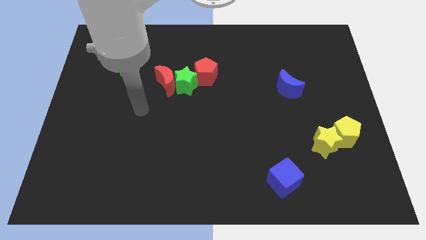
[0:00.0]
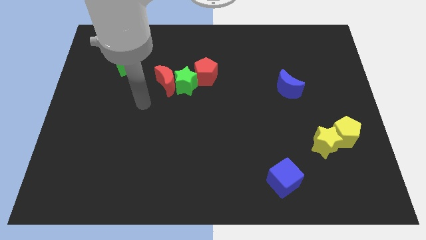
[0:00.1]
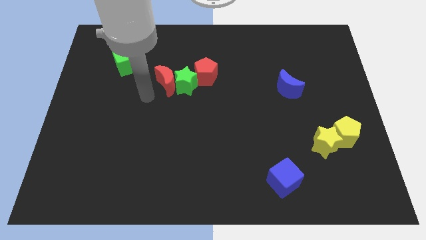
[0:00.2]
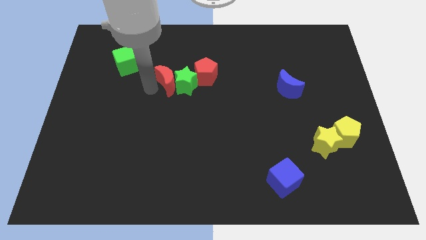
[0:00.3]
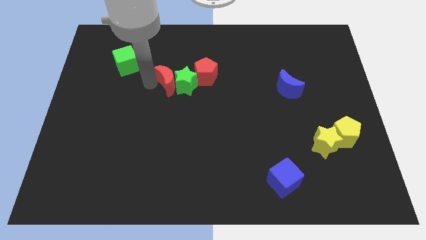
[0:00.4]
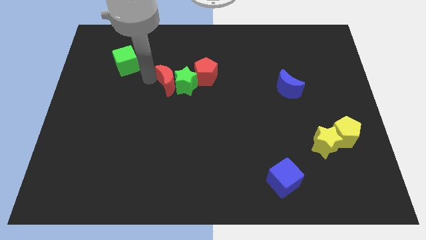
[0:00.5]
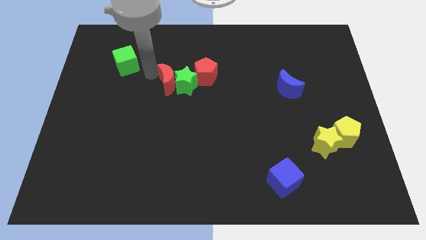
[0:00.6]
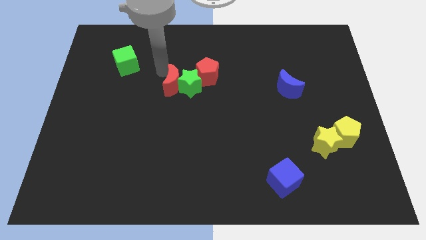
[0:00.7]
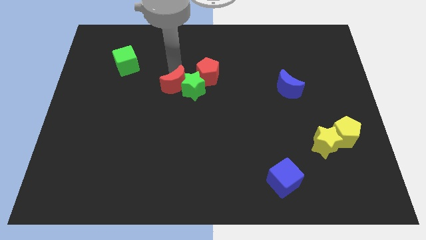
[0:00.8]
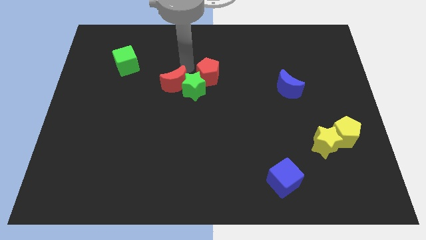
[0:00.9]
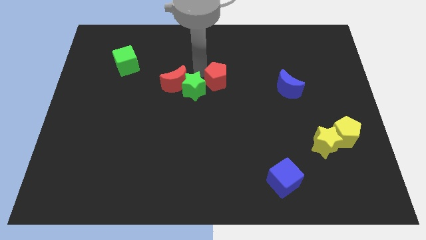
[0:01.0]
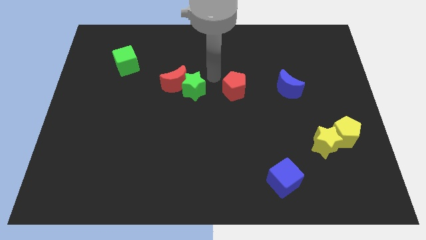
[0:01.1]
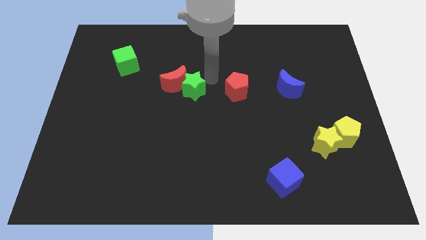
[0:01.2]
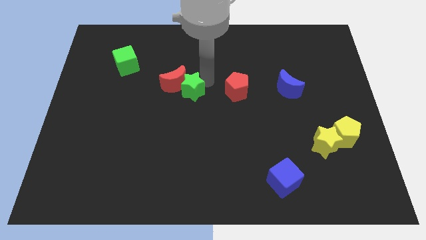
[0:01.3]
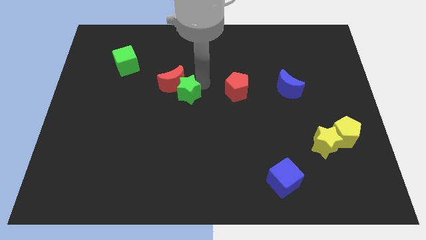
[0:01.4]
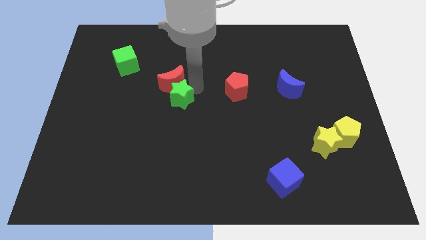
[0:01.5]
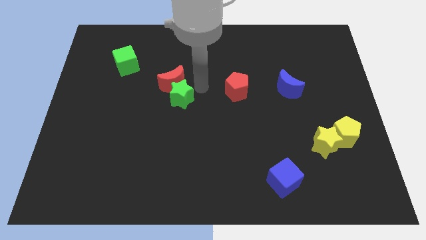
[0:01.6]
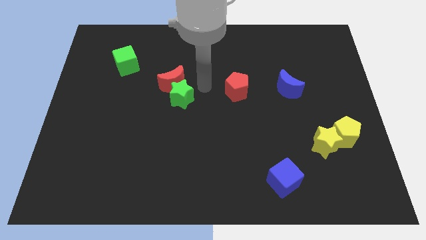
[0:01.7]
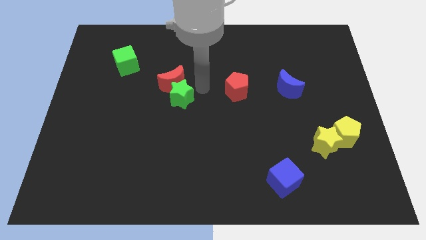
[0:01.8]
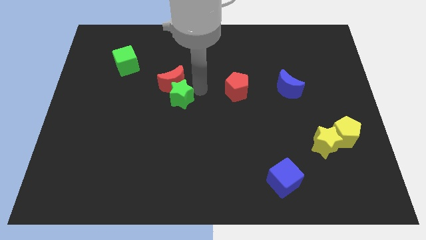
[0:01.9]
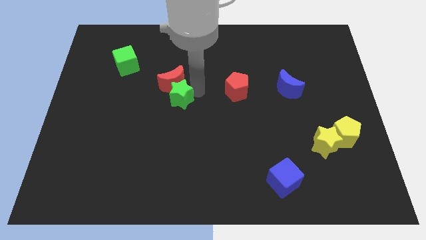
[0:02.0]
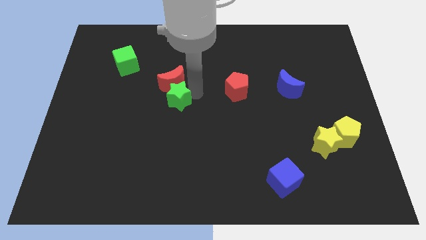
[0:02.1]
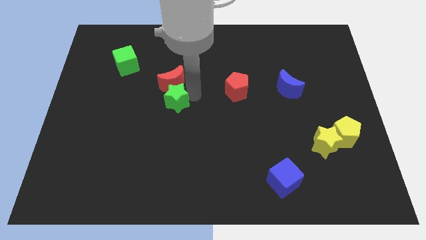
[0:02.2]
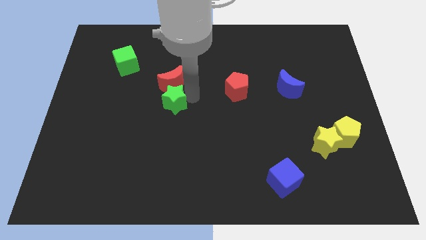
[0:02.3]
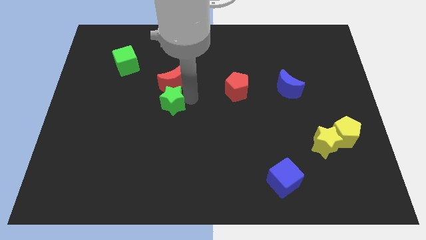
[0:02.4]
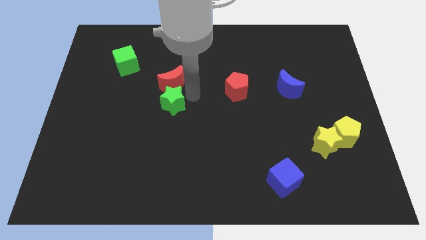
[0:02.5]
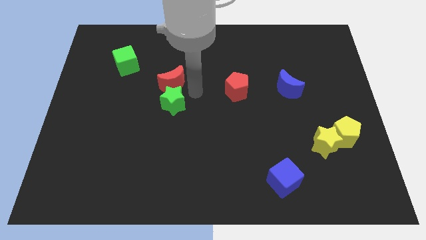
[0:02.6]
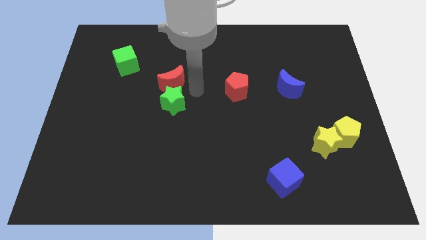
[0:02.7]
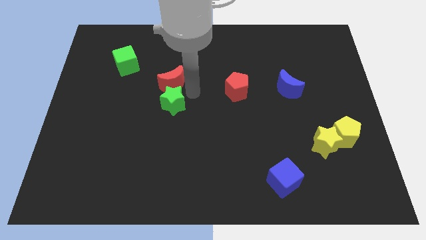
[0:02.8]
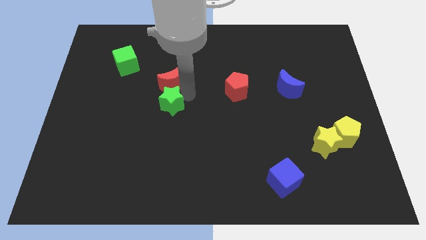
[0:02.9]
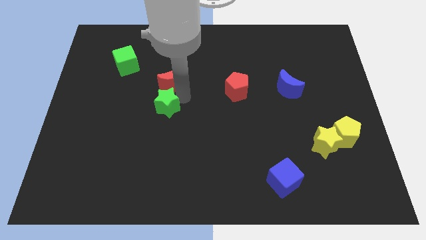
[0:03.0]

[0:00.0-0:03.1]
pull the green star apart from the red moon and red pentagon

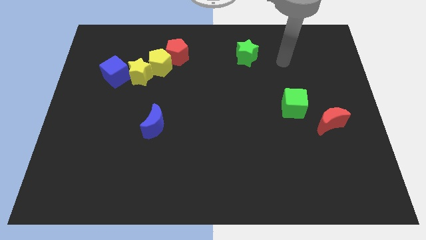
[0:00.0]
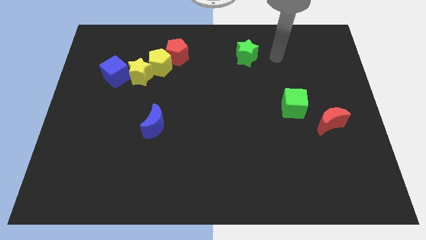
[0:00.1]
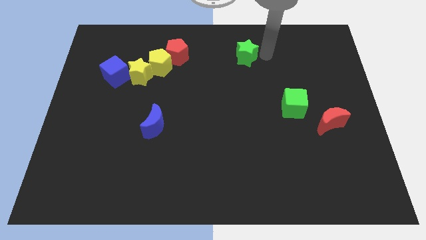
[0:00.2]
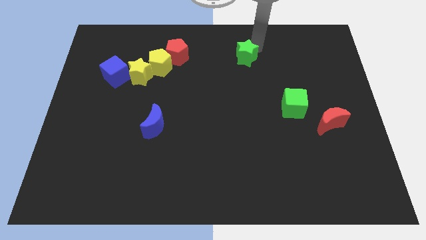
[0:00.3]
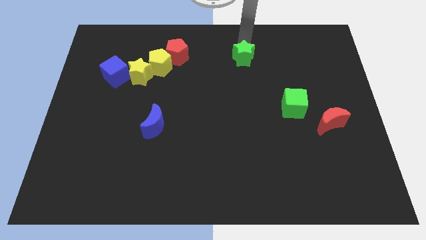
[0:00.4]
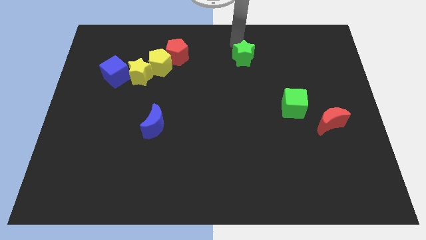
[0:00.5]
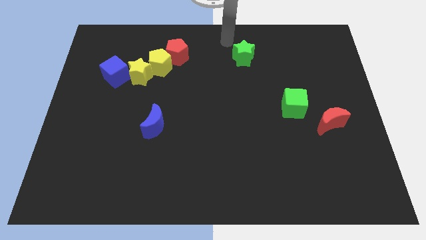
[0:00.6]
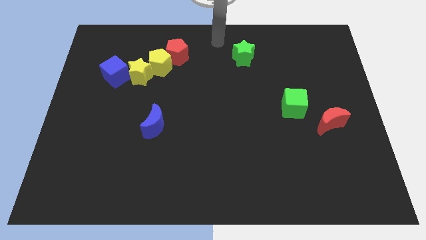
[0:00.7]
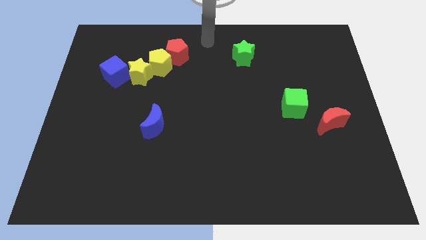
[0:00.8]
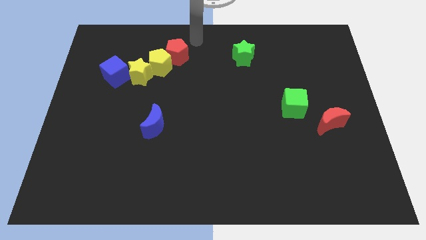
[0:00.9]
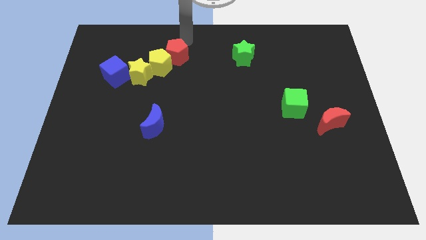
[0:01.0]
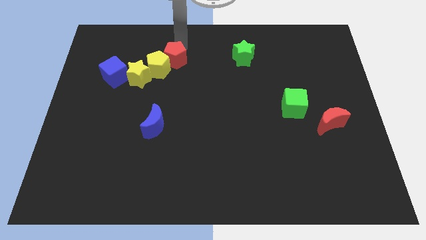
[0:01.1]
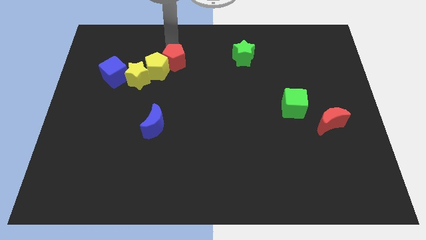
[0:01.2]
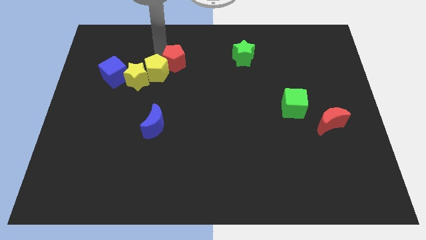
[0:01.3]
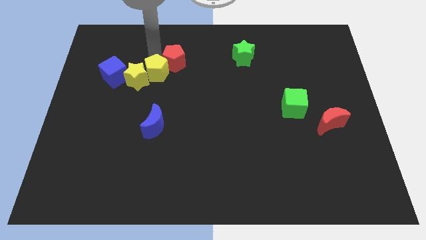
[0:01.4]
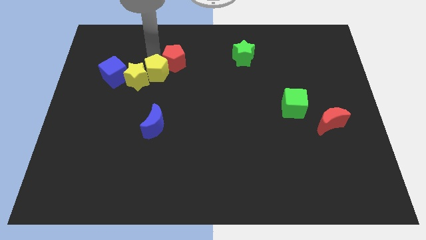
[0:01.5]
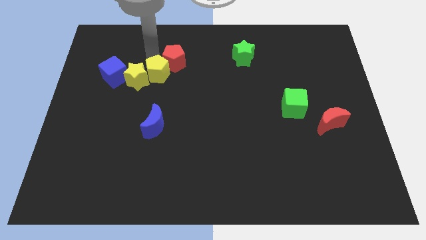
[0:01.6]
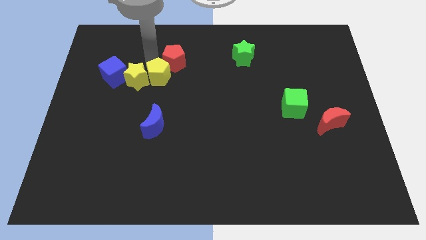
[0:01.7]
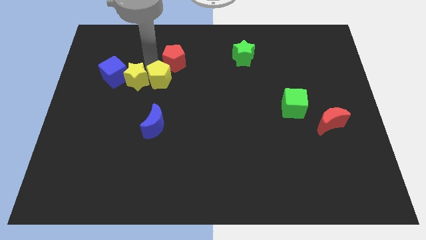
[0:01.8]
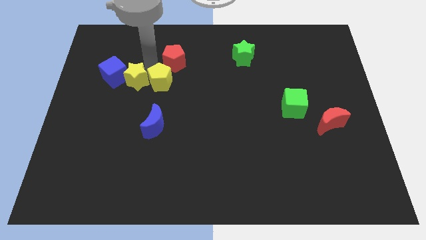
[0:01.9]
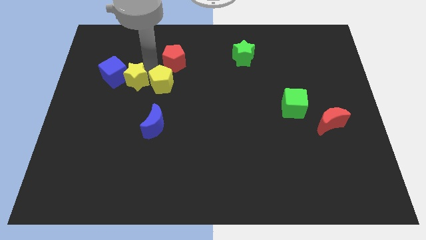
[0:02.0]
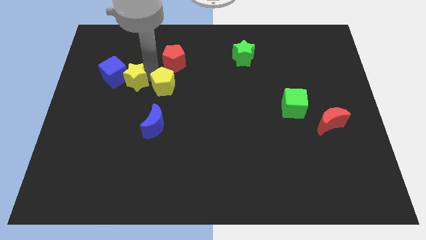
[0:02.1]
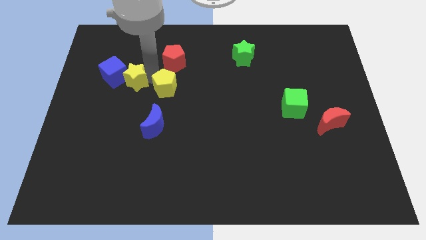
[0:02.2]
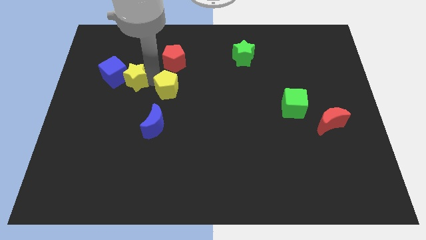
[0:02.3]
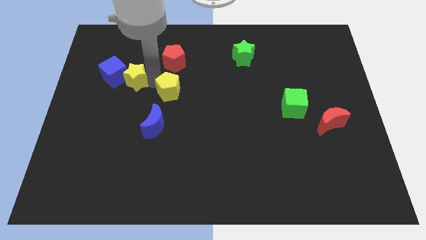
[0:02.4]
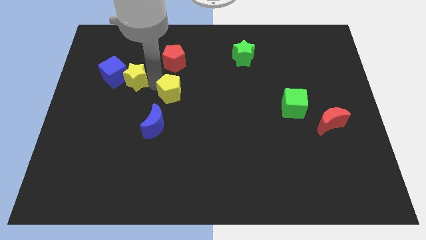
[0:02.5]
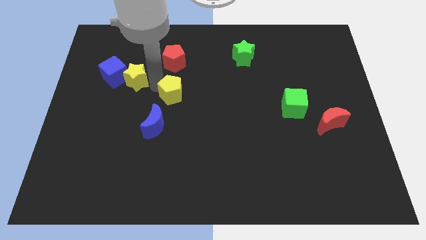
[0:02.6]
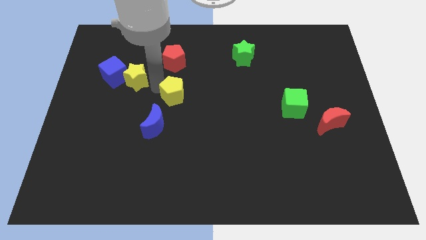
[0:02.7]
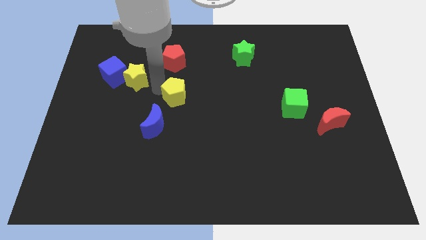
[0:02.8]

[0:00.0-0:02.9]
separate the yellow pentagon from the yellow star and red pentagon

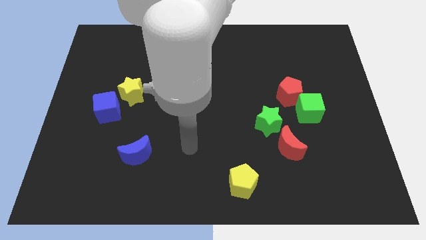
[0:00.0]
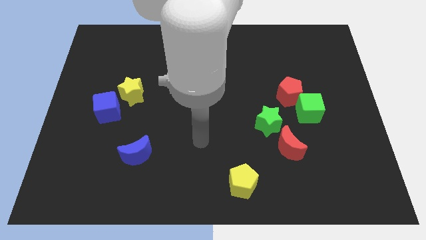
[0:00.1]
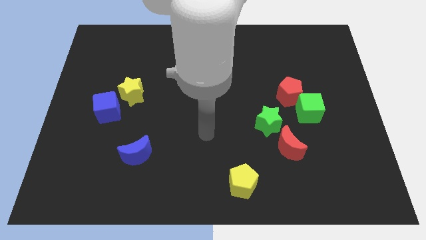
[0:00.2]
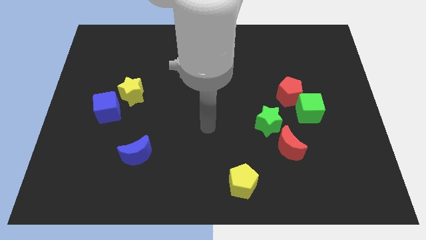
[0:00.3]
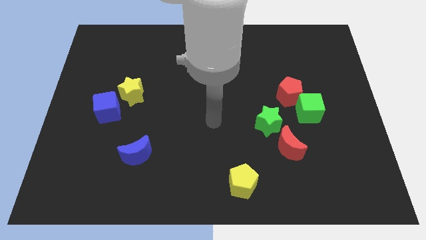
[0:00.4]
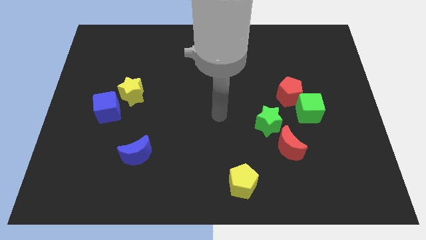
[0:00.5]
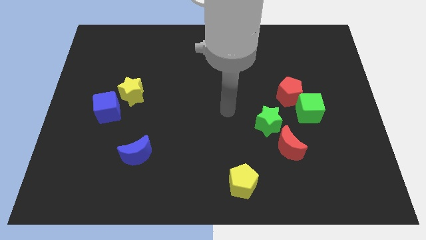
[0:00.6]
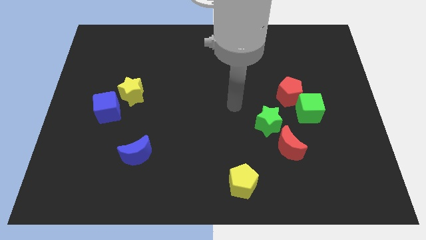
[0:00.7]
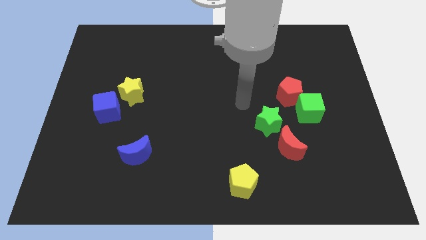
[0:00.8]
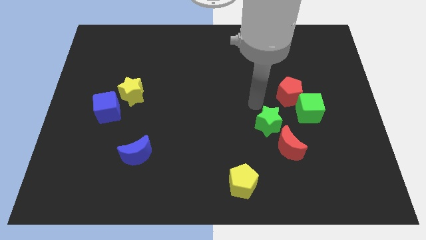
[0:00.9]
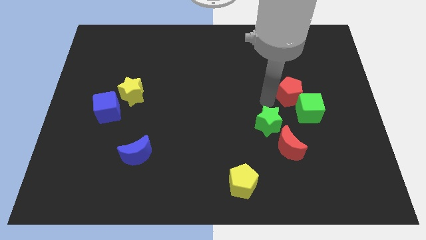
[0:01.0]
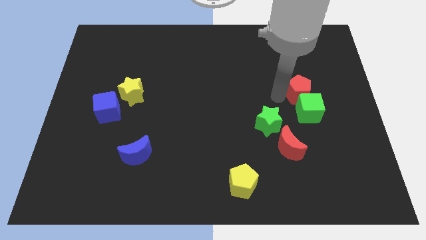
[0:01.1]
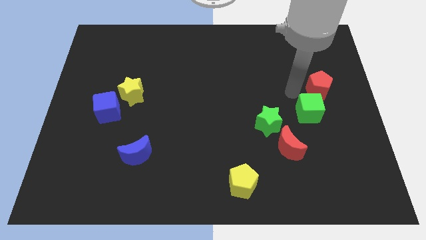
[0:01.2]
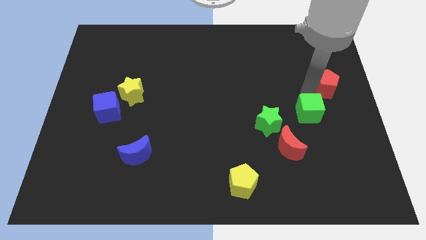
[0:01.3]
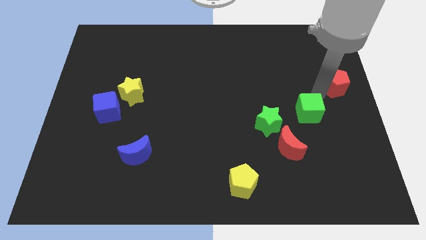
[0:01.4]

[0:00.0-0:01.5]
pull the green cube apart from the red pentagon

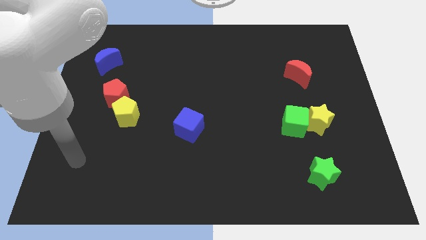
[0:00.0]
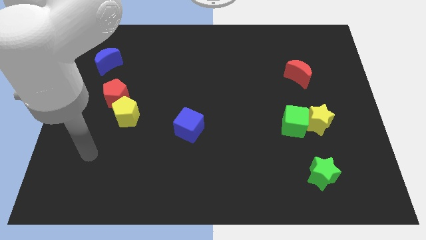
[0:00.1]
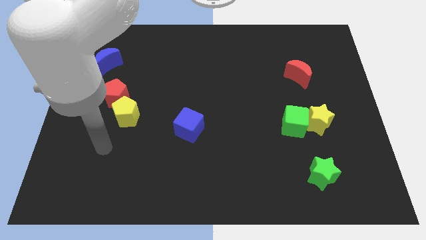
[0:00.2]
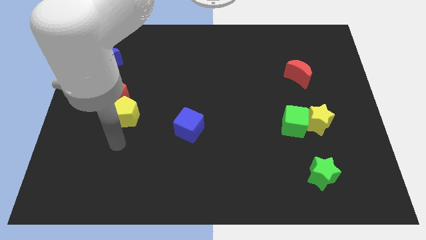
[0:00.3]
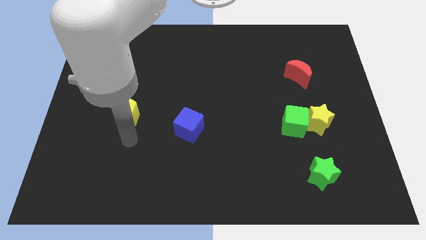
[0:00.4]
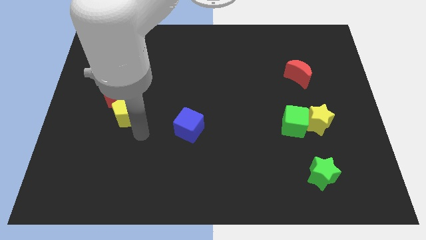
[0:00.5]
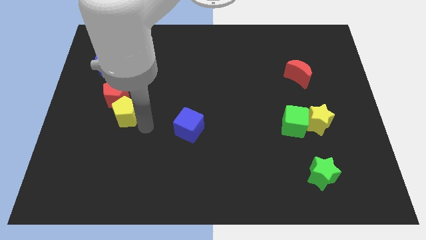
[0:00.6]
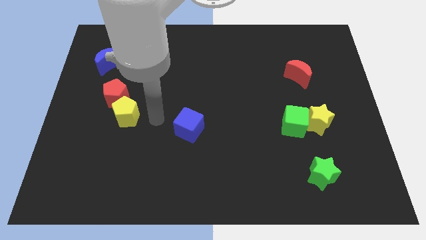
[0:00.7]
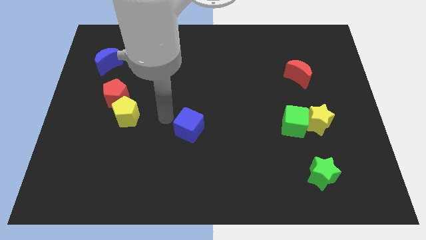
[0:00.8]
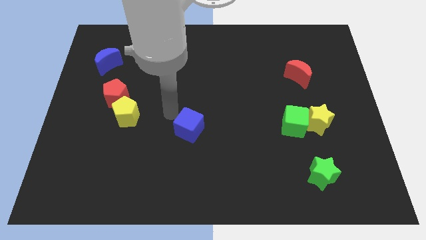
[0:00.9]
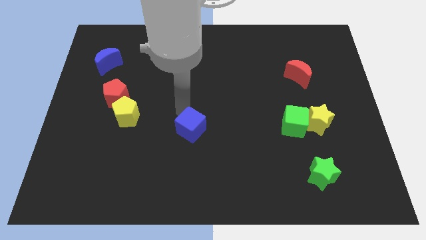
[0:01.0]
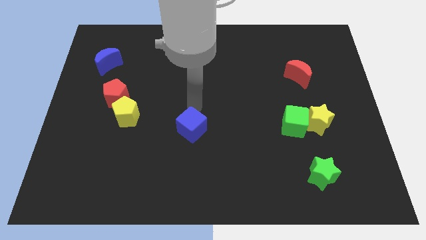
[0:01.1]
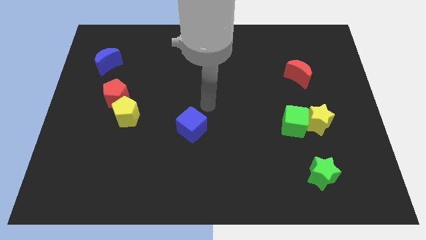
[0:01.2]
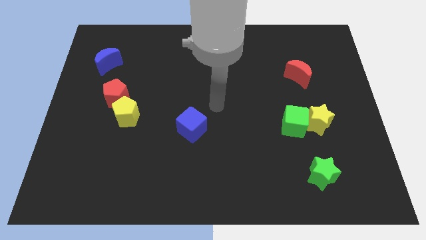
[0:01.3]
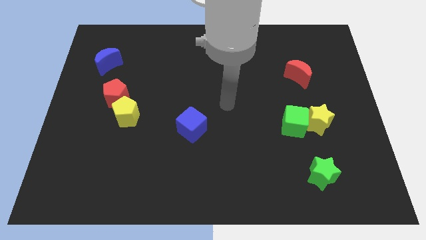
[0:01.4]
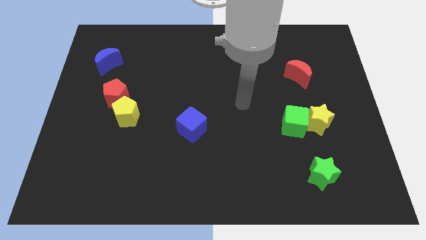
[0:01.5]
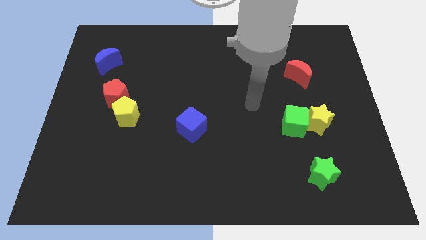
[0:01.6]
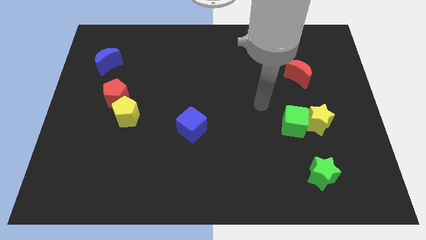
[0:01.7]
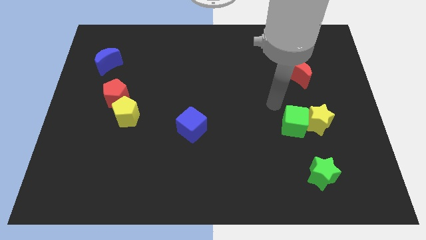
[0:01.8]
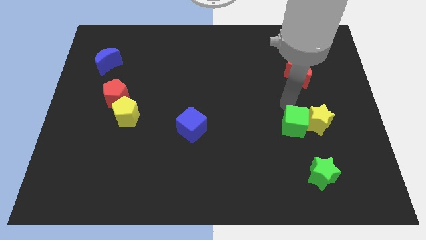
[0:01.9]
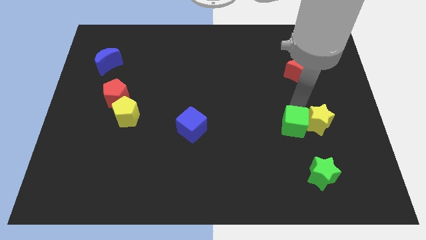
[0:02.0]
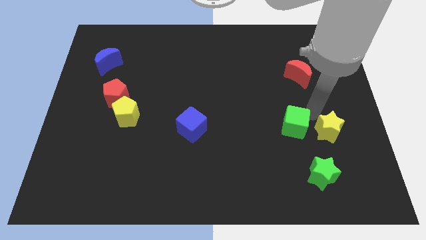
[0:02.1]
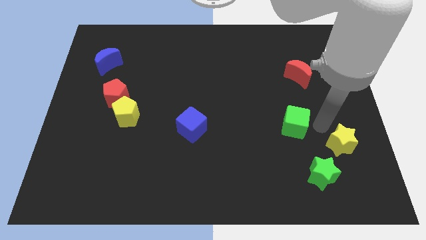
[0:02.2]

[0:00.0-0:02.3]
separate the green cube from the yellow star
